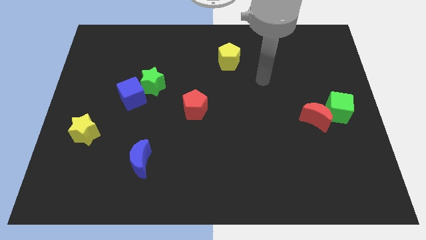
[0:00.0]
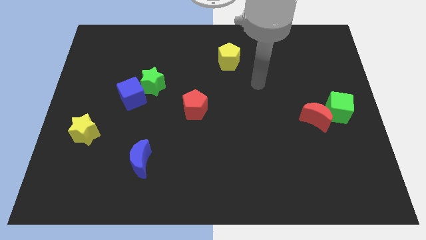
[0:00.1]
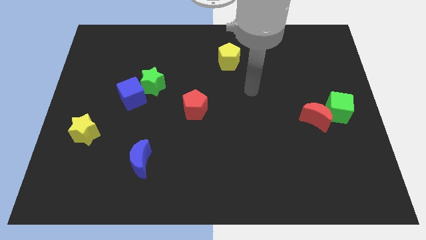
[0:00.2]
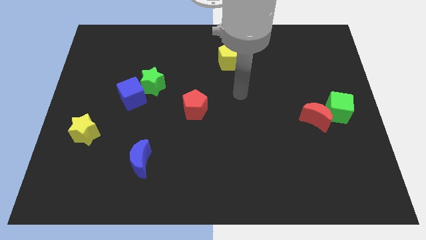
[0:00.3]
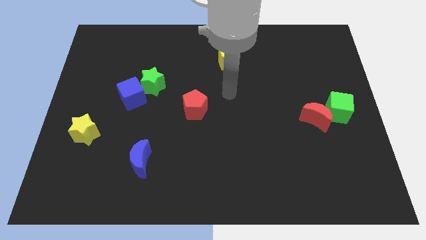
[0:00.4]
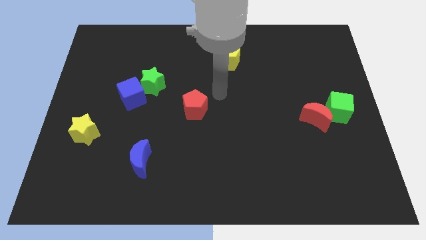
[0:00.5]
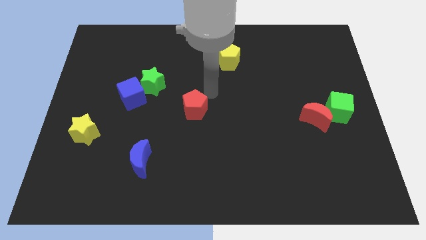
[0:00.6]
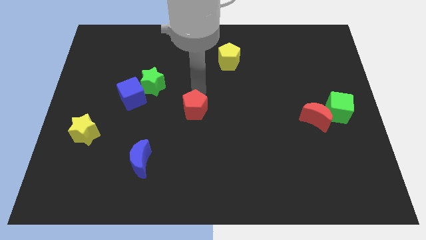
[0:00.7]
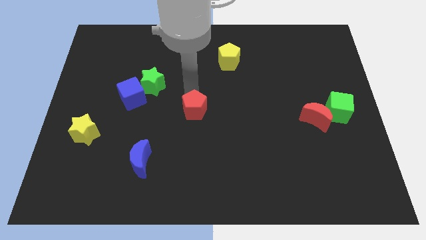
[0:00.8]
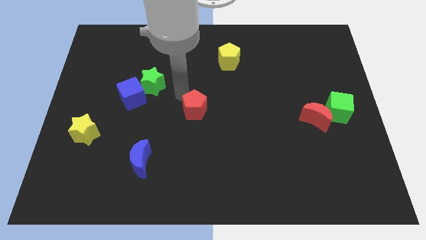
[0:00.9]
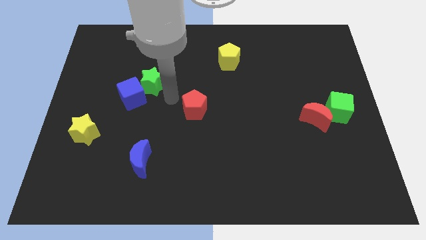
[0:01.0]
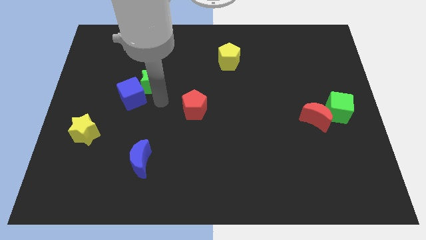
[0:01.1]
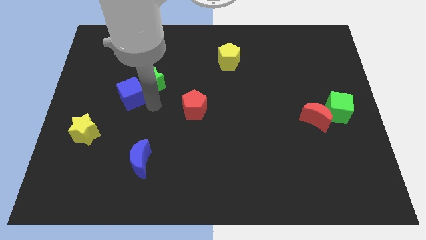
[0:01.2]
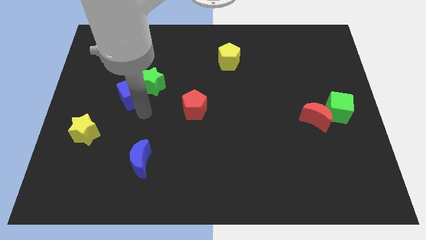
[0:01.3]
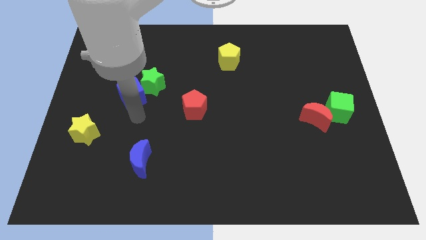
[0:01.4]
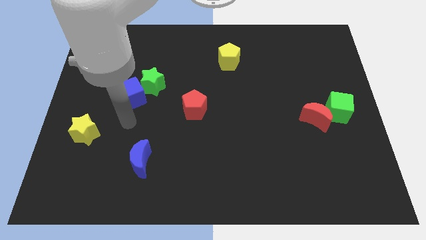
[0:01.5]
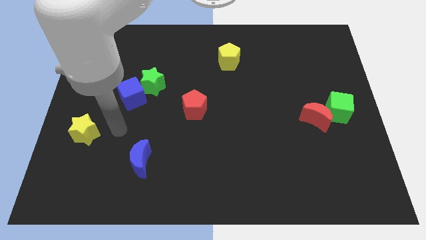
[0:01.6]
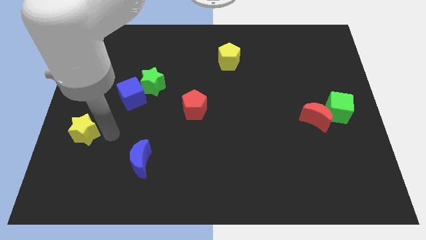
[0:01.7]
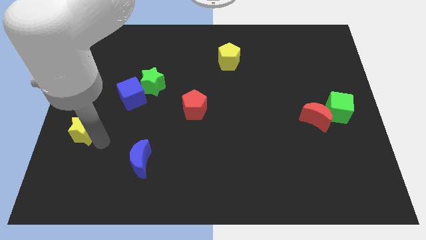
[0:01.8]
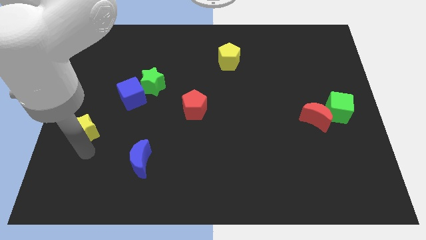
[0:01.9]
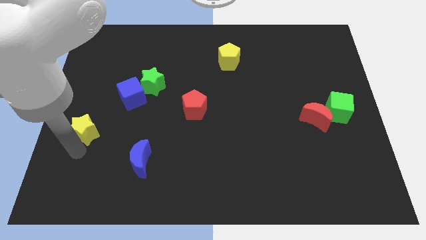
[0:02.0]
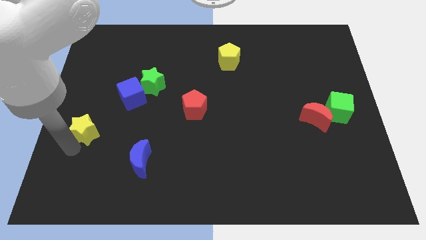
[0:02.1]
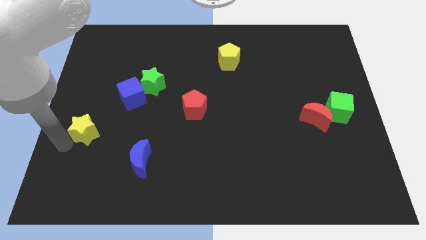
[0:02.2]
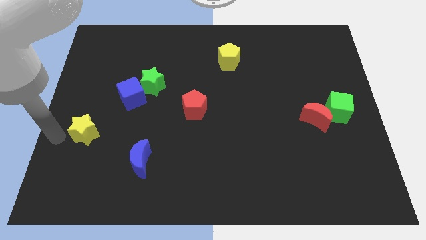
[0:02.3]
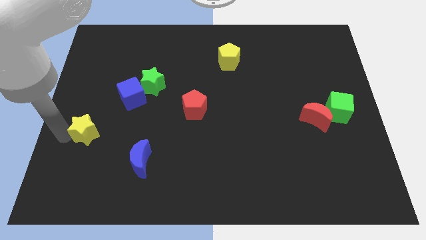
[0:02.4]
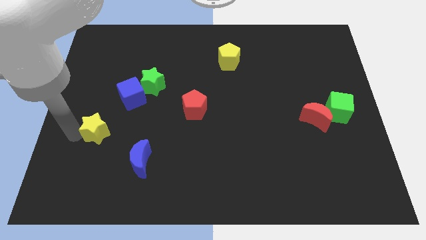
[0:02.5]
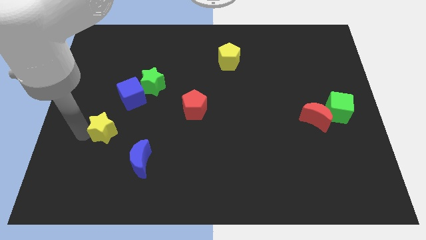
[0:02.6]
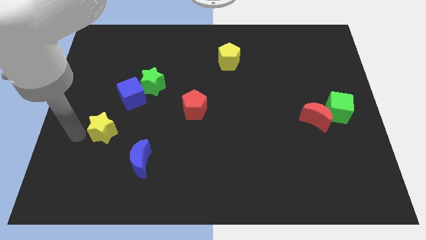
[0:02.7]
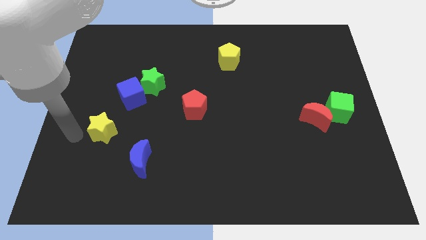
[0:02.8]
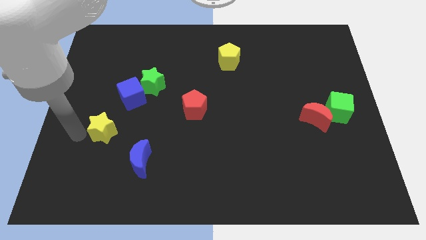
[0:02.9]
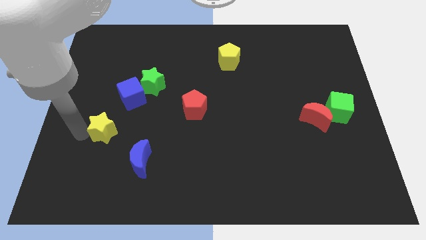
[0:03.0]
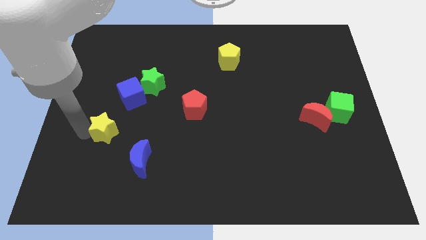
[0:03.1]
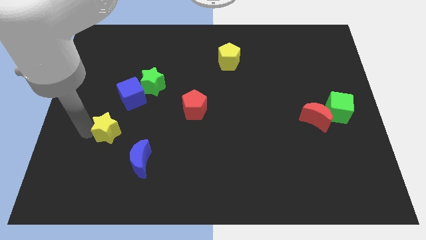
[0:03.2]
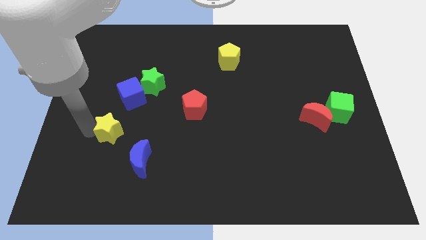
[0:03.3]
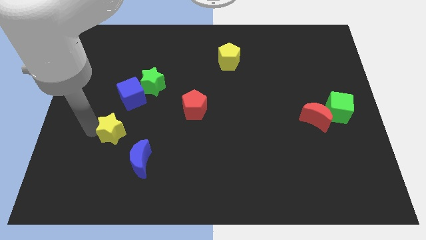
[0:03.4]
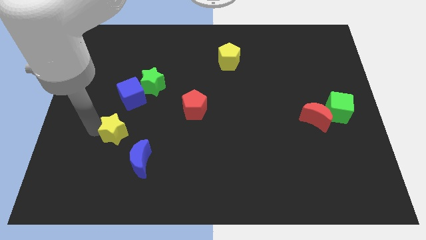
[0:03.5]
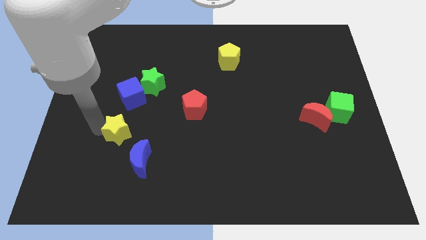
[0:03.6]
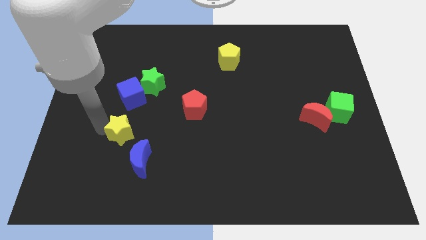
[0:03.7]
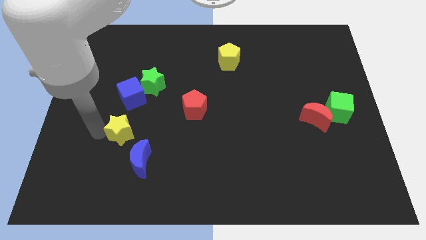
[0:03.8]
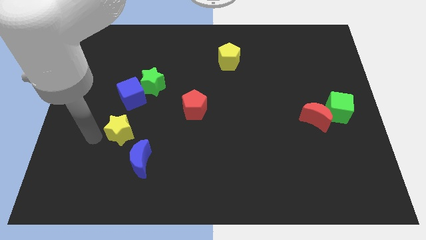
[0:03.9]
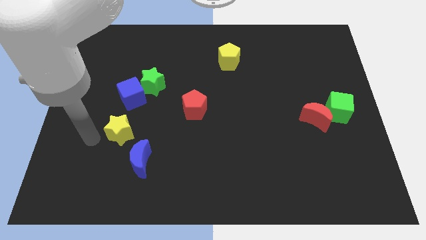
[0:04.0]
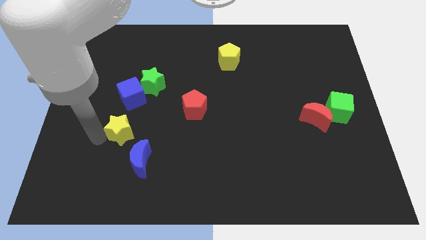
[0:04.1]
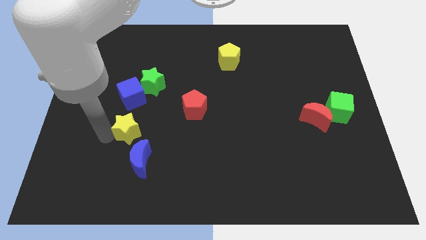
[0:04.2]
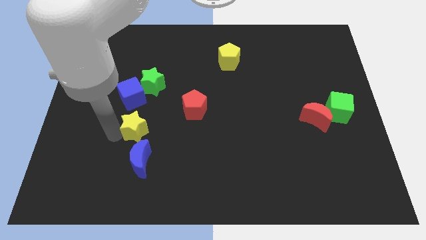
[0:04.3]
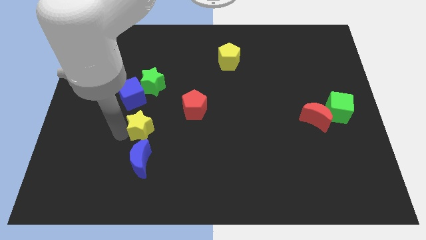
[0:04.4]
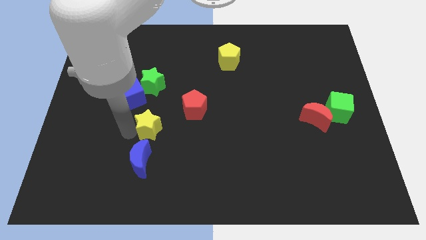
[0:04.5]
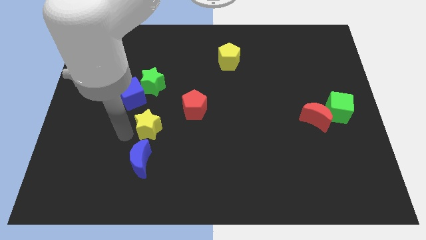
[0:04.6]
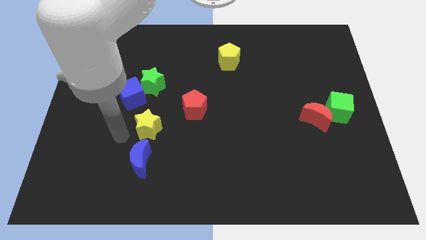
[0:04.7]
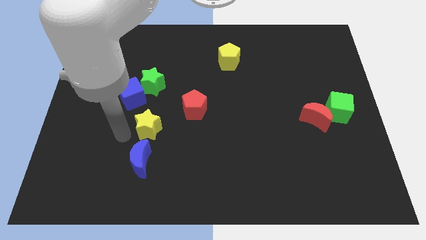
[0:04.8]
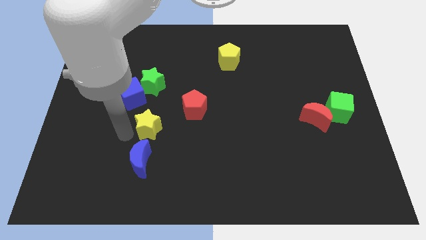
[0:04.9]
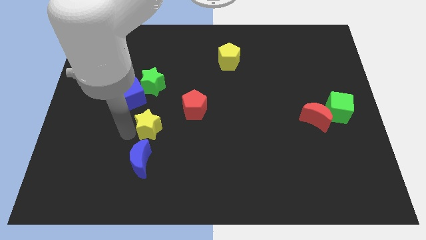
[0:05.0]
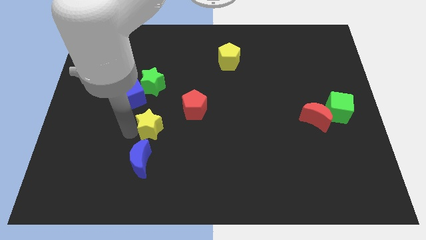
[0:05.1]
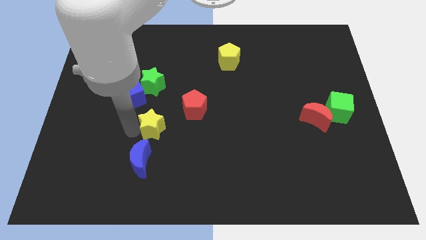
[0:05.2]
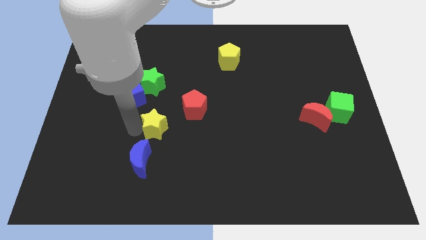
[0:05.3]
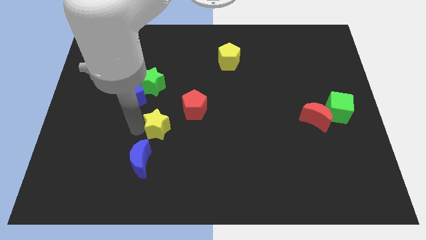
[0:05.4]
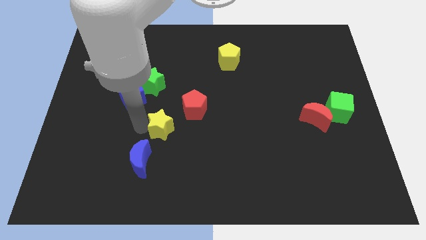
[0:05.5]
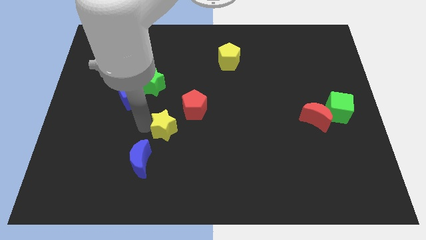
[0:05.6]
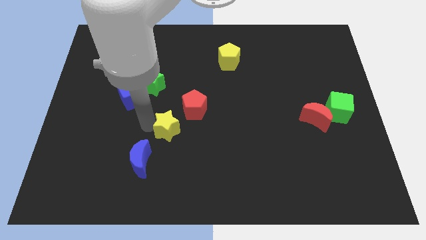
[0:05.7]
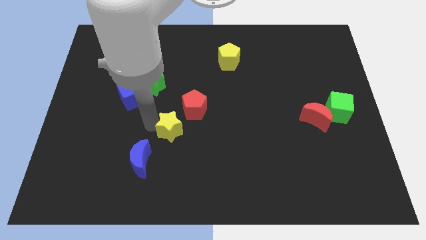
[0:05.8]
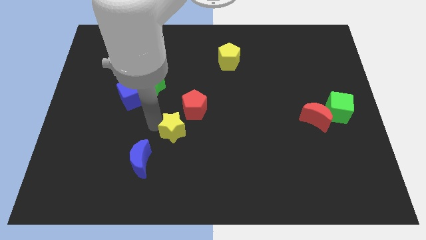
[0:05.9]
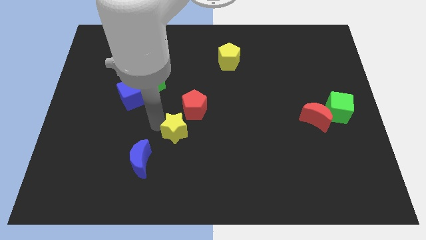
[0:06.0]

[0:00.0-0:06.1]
push the yellow star to the right

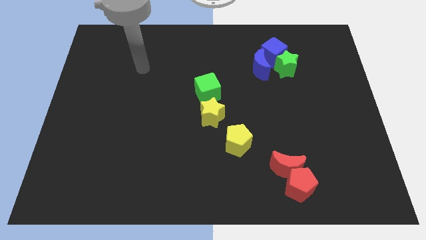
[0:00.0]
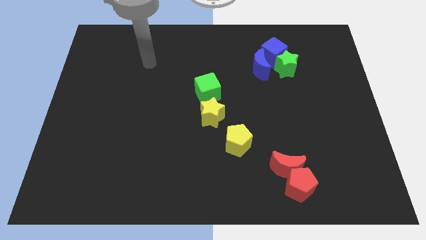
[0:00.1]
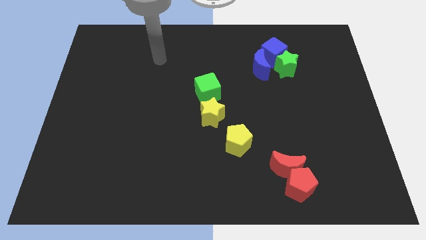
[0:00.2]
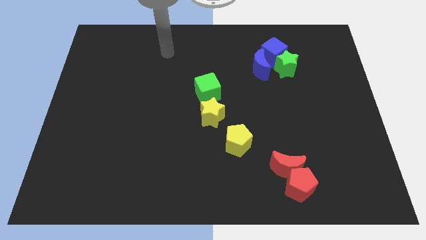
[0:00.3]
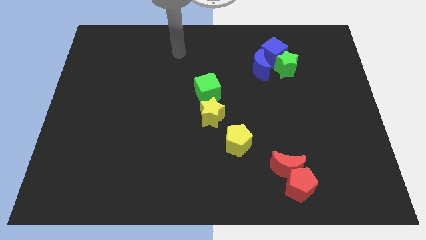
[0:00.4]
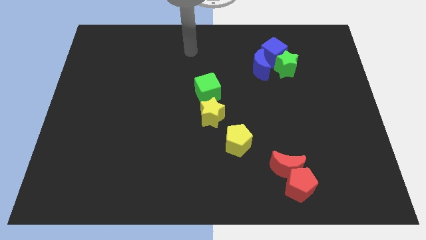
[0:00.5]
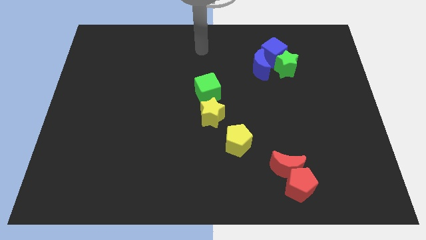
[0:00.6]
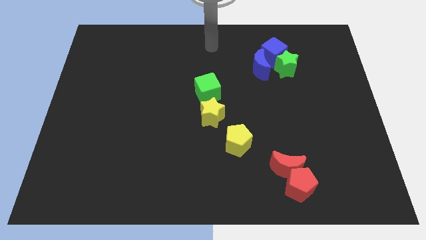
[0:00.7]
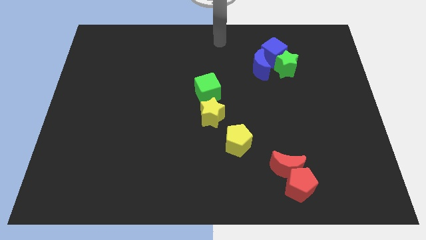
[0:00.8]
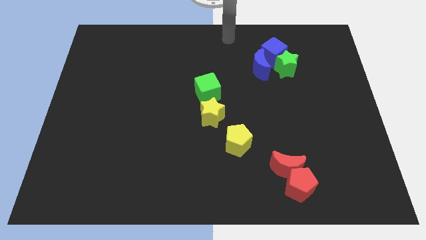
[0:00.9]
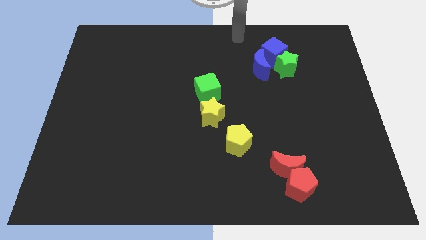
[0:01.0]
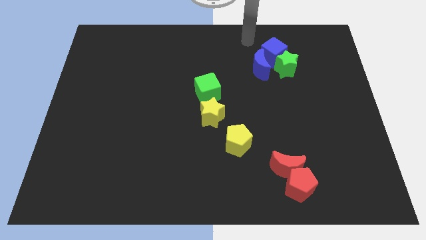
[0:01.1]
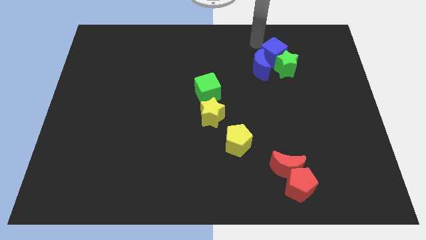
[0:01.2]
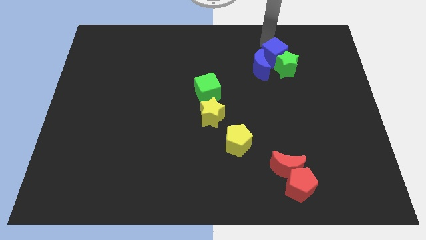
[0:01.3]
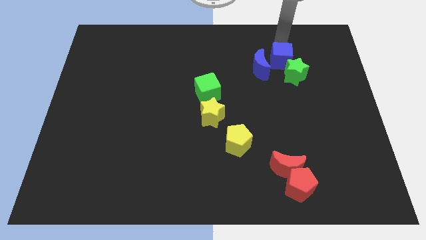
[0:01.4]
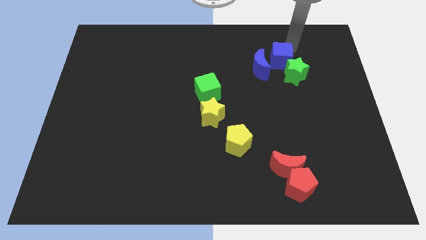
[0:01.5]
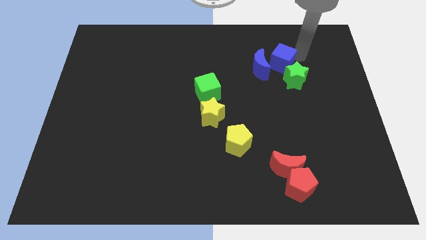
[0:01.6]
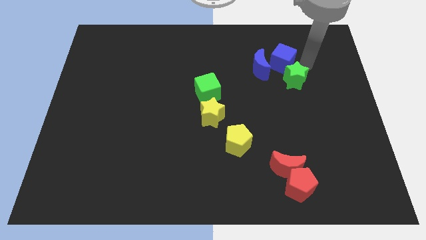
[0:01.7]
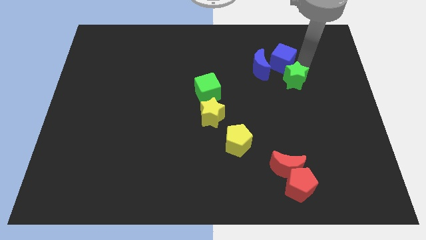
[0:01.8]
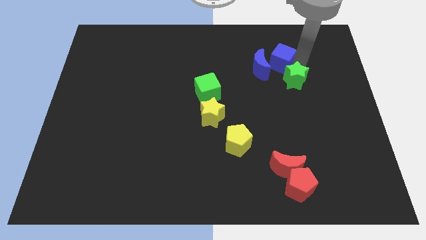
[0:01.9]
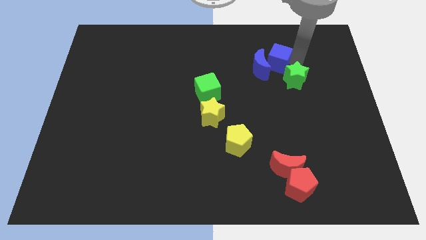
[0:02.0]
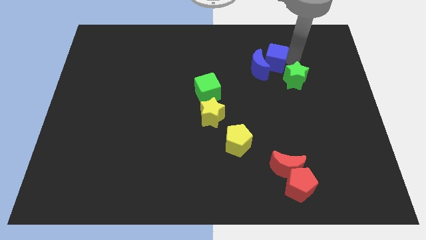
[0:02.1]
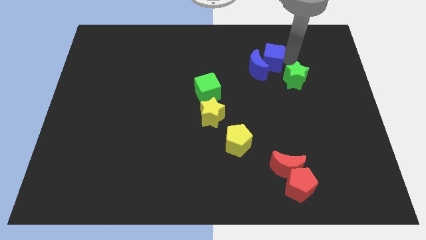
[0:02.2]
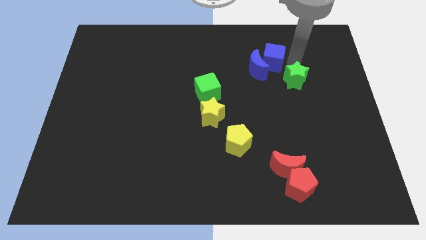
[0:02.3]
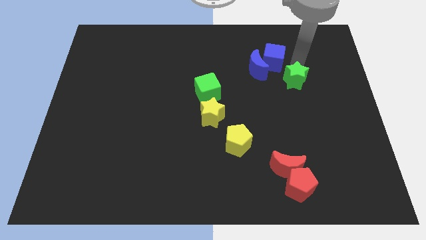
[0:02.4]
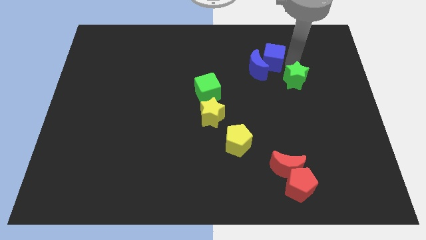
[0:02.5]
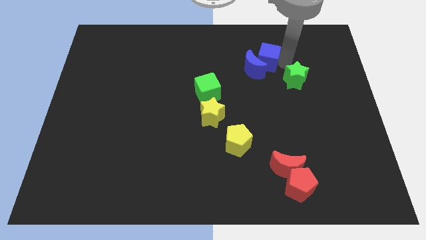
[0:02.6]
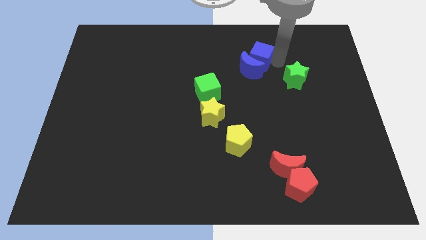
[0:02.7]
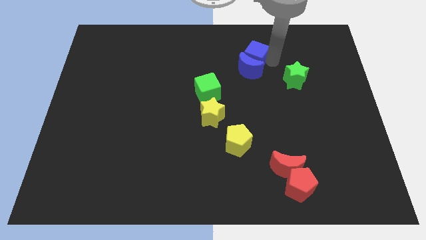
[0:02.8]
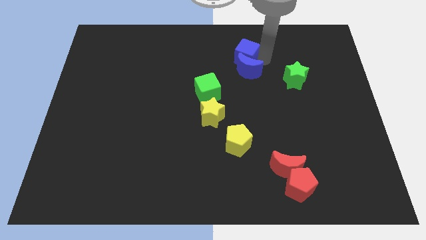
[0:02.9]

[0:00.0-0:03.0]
move the blue cube a little bit left
